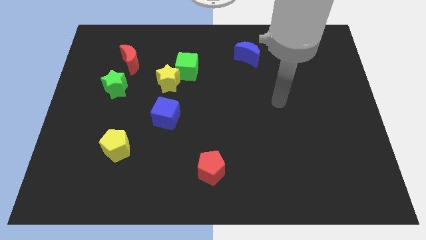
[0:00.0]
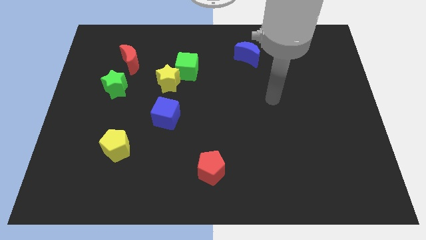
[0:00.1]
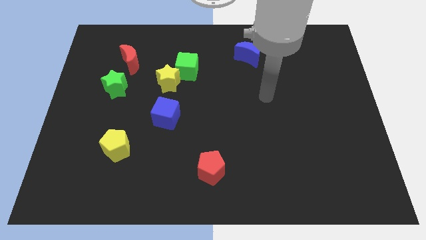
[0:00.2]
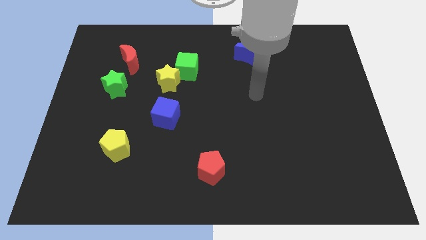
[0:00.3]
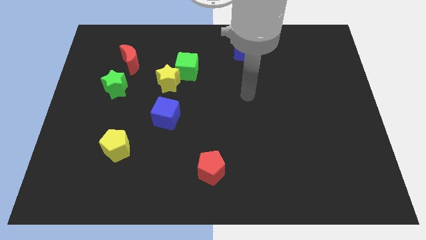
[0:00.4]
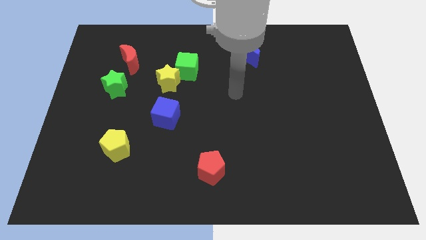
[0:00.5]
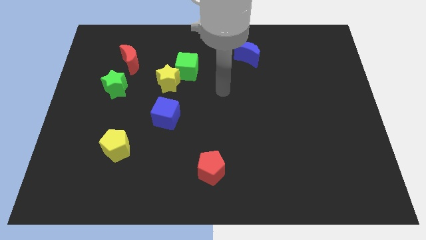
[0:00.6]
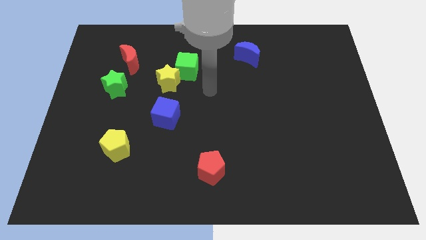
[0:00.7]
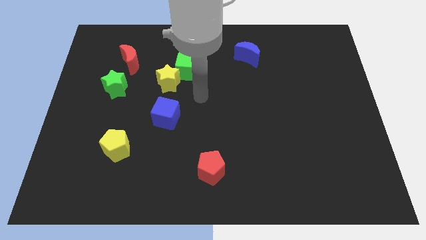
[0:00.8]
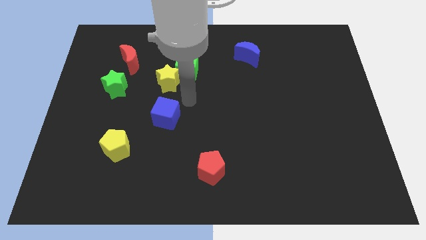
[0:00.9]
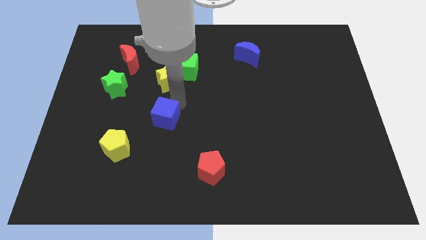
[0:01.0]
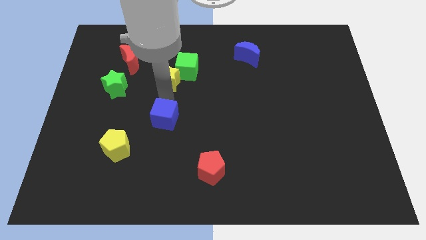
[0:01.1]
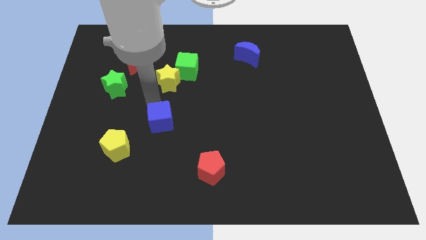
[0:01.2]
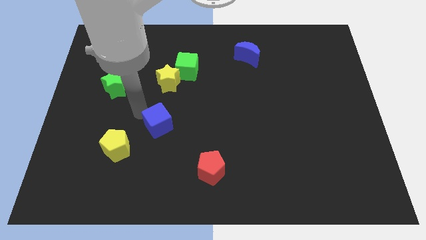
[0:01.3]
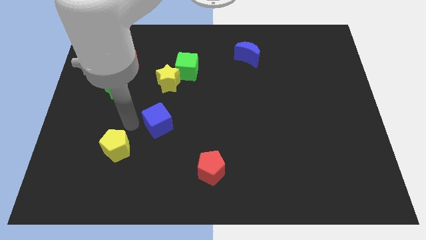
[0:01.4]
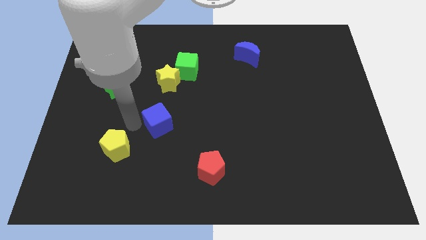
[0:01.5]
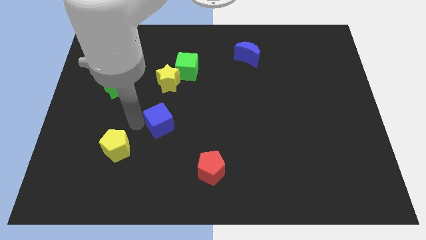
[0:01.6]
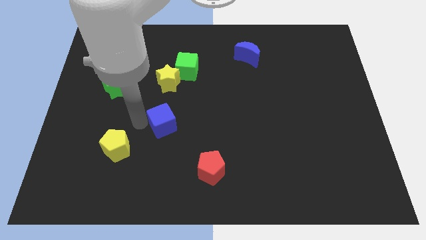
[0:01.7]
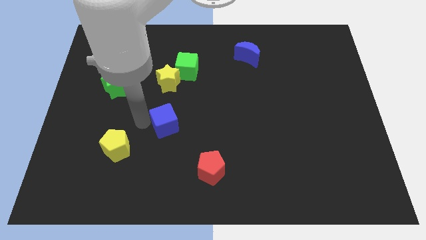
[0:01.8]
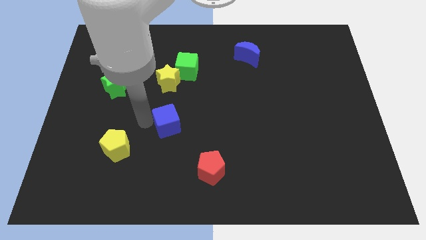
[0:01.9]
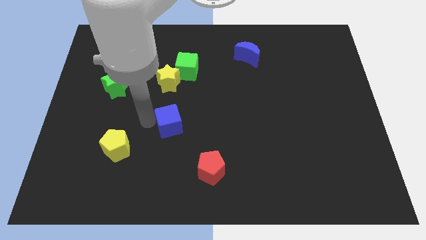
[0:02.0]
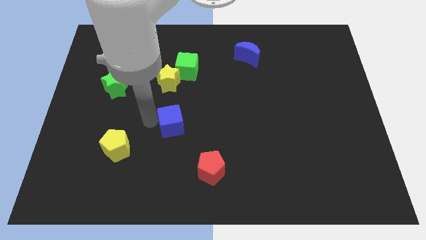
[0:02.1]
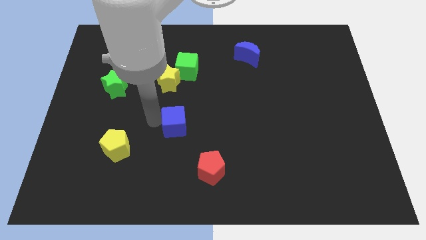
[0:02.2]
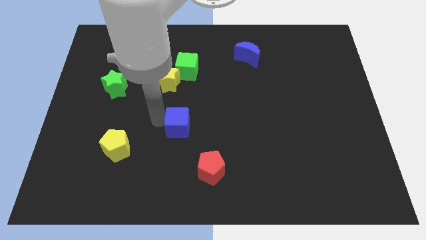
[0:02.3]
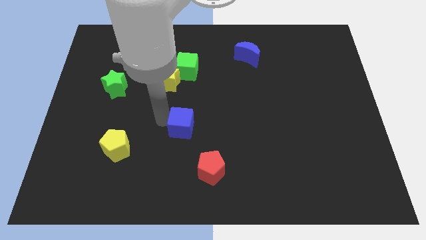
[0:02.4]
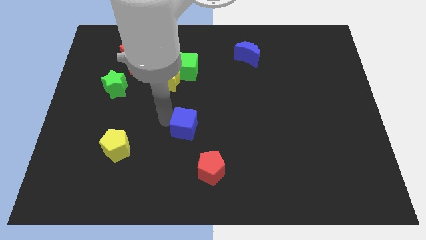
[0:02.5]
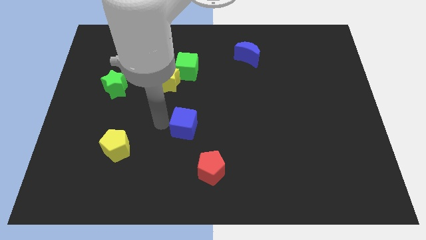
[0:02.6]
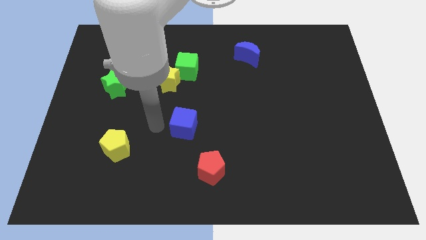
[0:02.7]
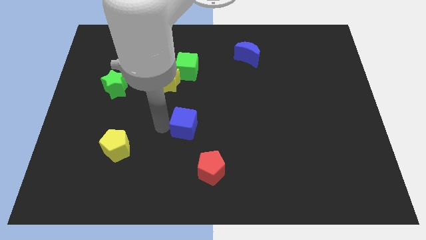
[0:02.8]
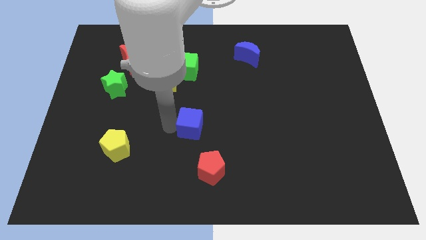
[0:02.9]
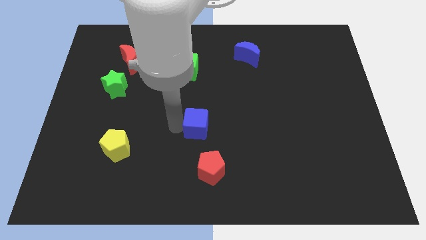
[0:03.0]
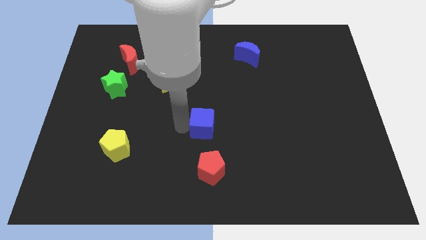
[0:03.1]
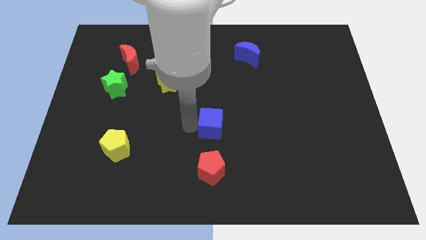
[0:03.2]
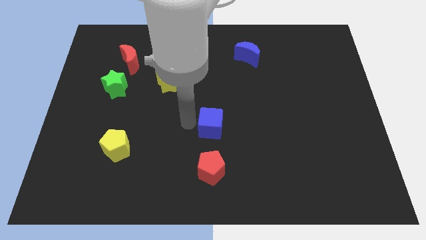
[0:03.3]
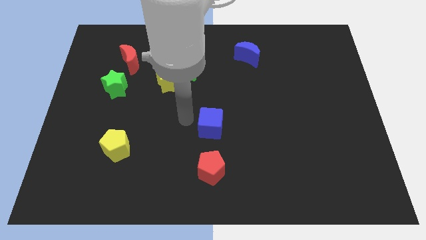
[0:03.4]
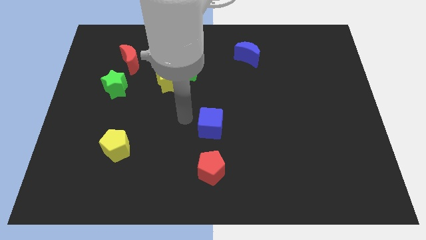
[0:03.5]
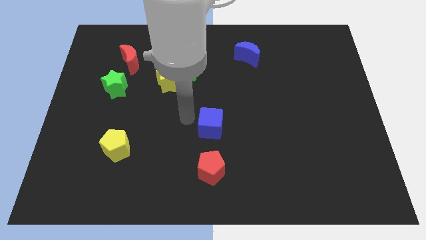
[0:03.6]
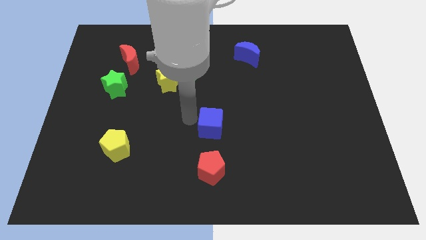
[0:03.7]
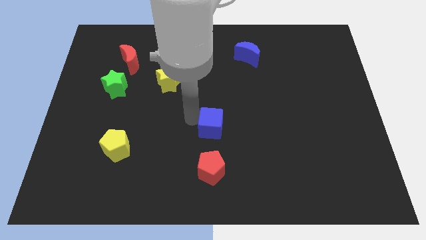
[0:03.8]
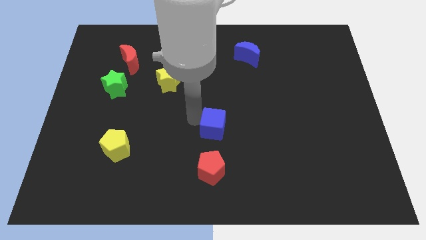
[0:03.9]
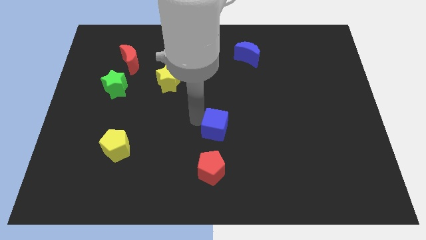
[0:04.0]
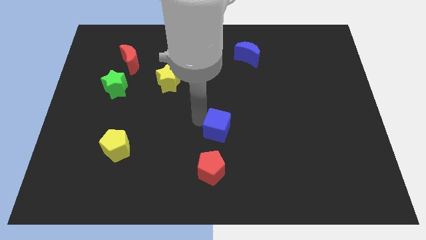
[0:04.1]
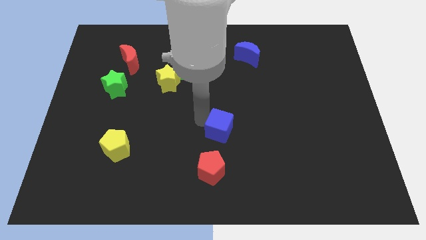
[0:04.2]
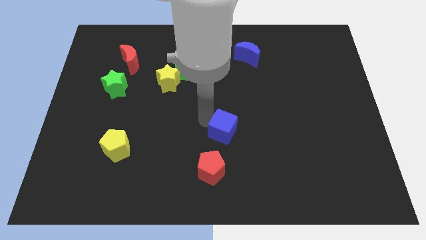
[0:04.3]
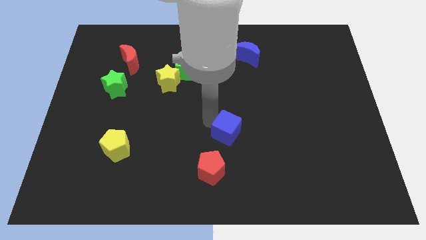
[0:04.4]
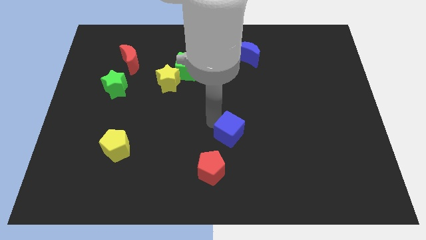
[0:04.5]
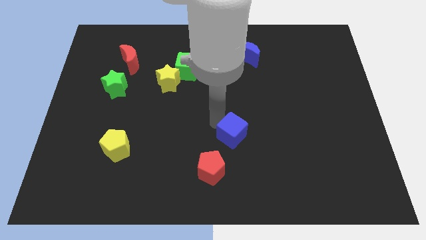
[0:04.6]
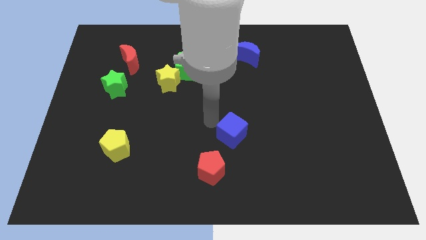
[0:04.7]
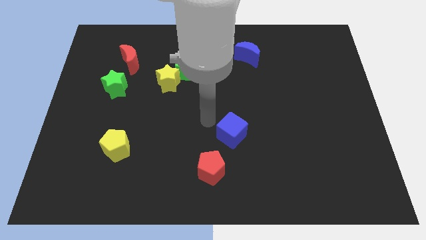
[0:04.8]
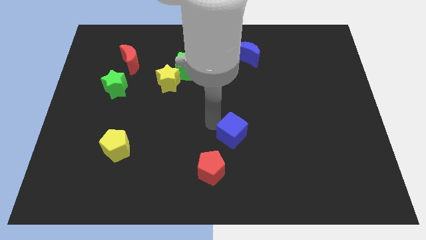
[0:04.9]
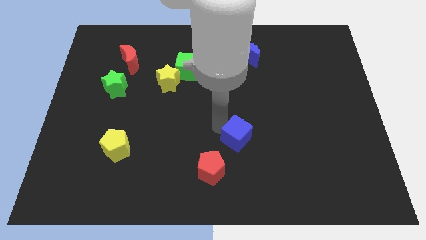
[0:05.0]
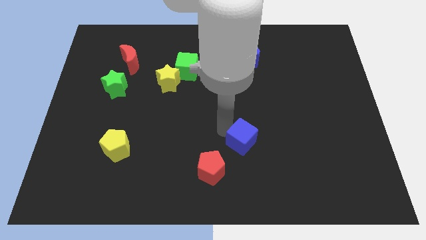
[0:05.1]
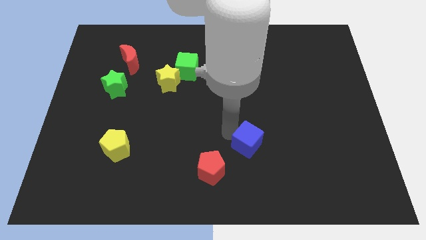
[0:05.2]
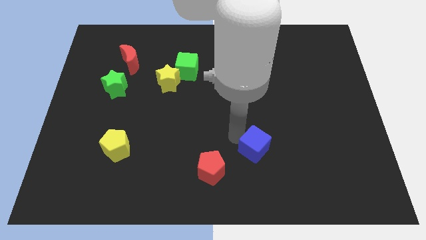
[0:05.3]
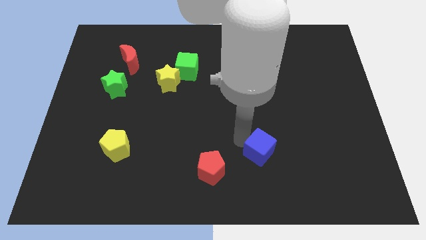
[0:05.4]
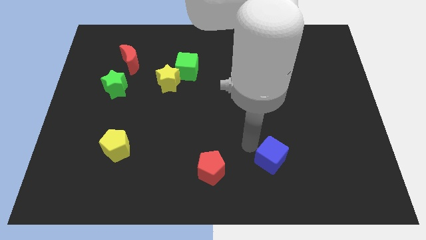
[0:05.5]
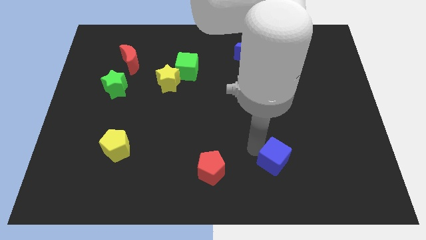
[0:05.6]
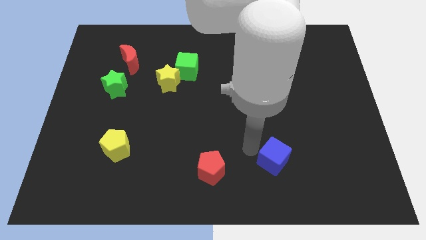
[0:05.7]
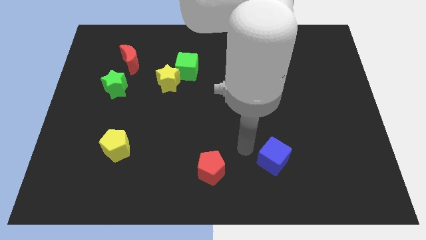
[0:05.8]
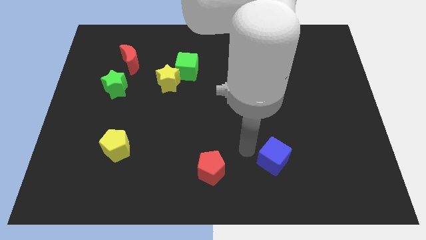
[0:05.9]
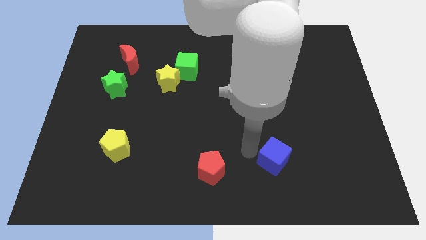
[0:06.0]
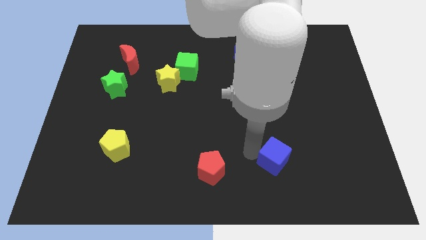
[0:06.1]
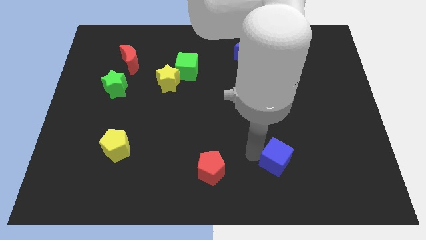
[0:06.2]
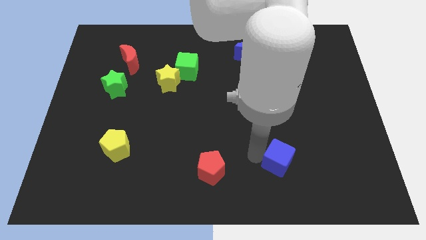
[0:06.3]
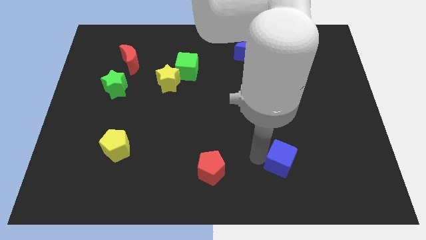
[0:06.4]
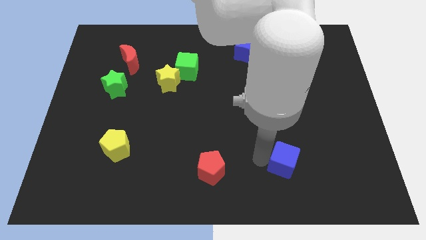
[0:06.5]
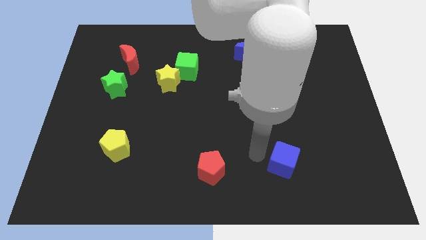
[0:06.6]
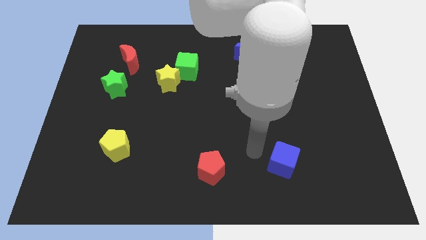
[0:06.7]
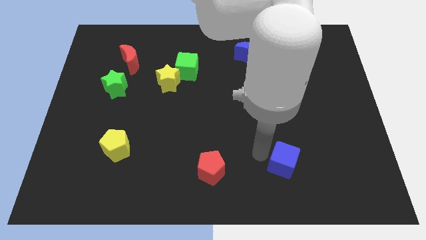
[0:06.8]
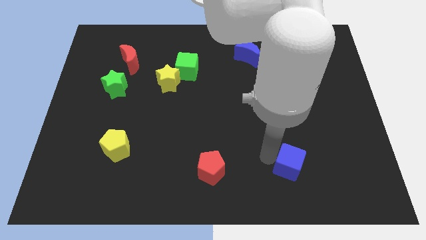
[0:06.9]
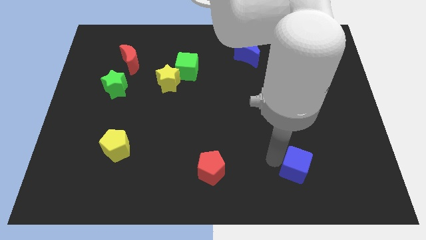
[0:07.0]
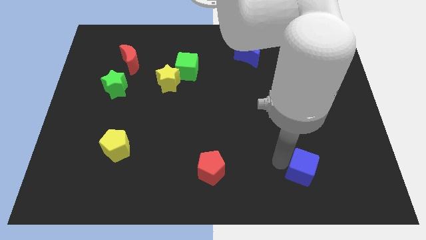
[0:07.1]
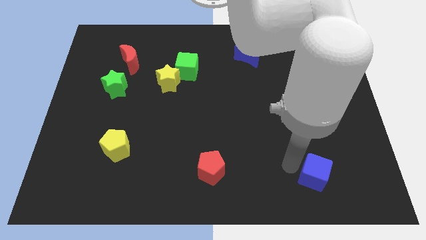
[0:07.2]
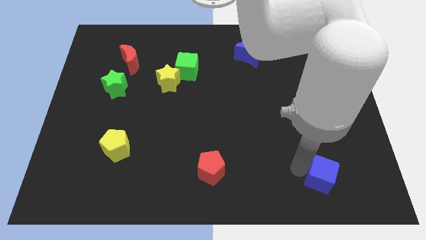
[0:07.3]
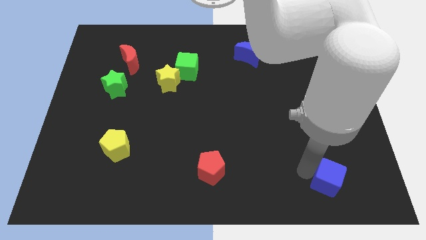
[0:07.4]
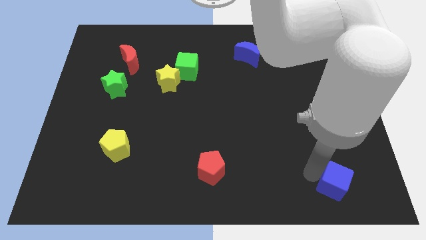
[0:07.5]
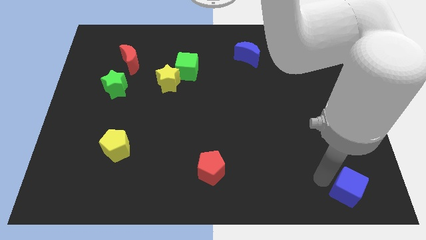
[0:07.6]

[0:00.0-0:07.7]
move the blue cube to the bottom right of the board
